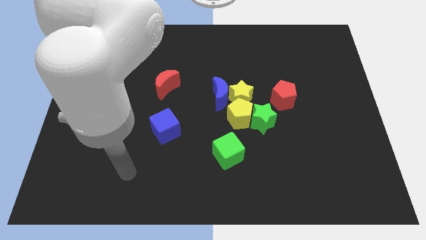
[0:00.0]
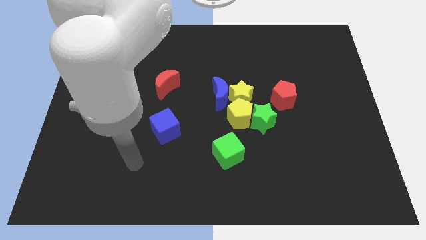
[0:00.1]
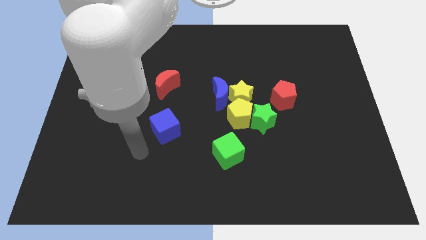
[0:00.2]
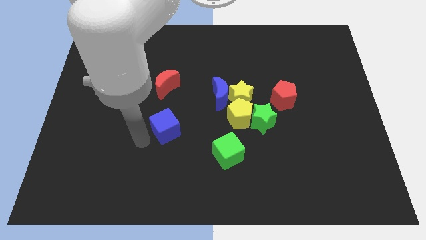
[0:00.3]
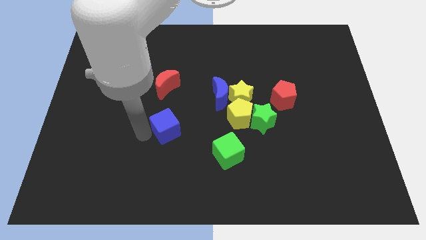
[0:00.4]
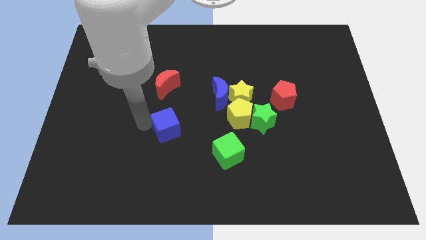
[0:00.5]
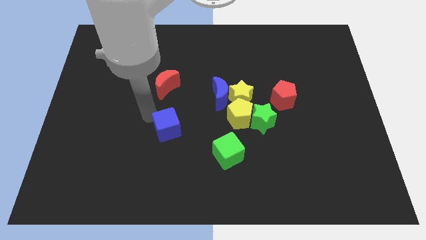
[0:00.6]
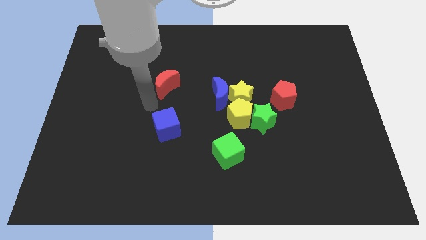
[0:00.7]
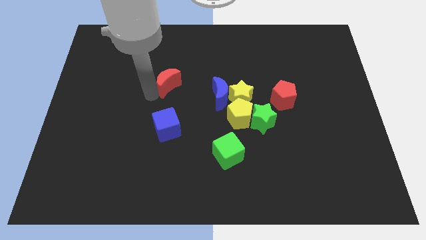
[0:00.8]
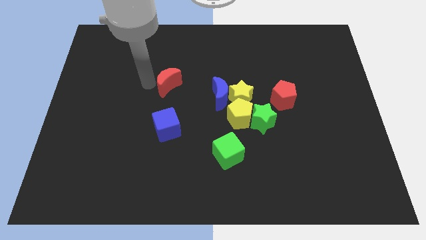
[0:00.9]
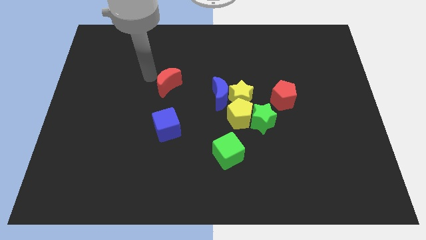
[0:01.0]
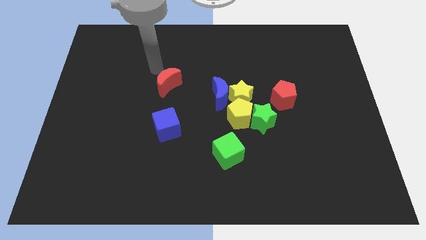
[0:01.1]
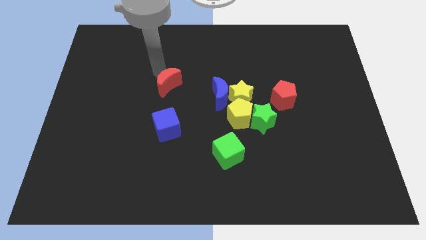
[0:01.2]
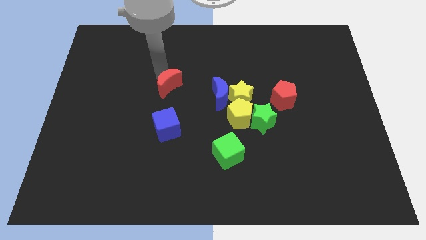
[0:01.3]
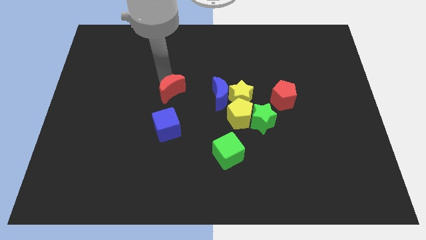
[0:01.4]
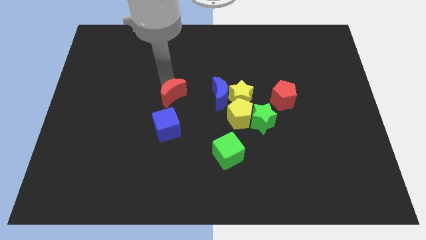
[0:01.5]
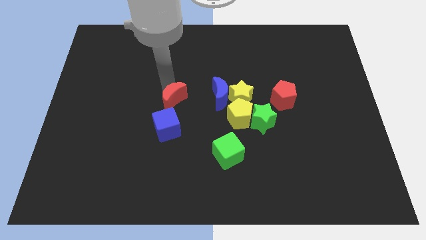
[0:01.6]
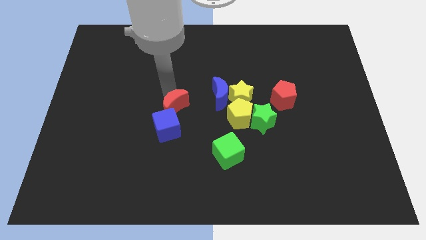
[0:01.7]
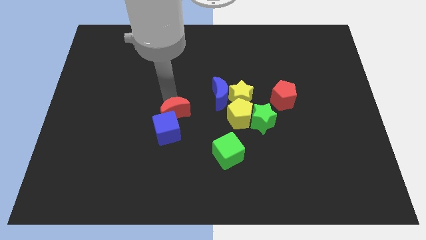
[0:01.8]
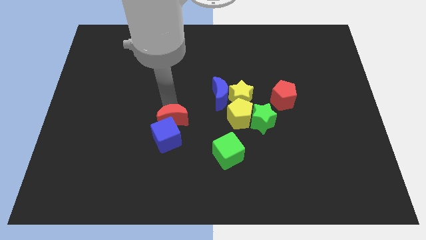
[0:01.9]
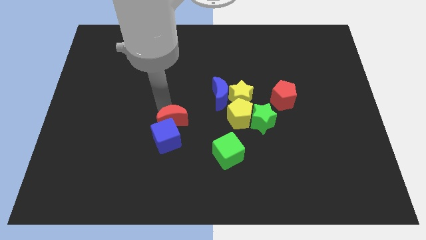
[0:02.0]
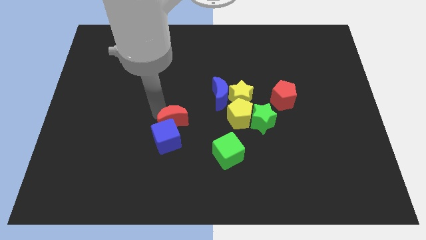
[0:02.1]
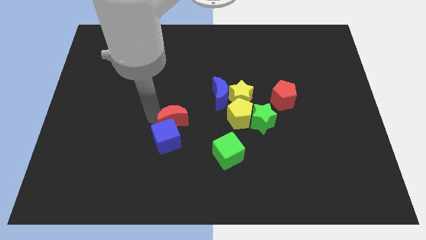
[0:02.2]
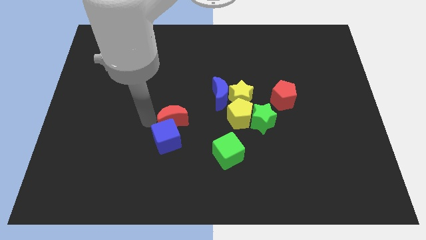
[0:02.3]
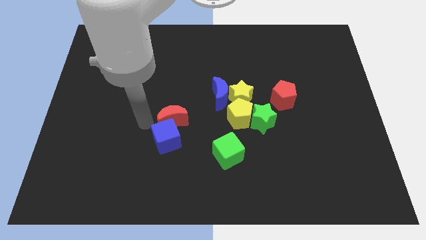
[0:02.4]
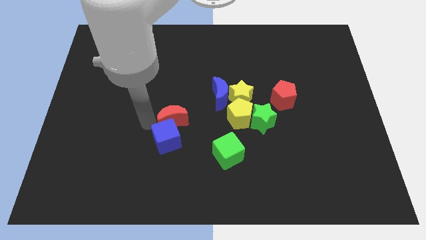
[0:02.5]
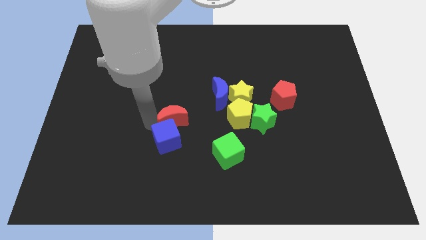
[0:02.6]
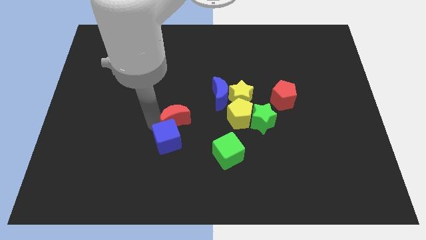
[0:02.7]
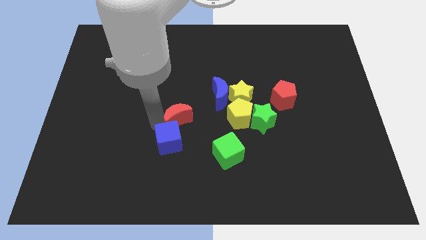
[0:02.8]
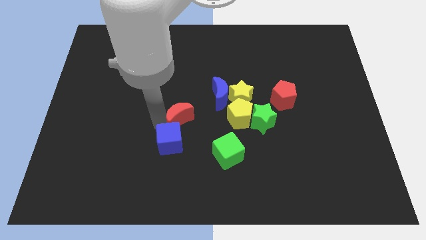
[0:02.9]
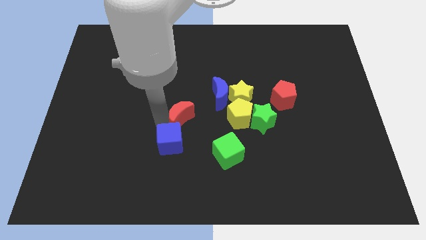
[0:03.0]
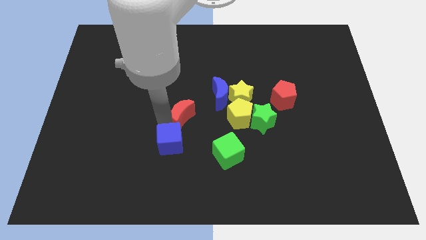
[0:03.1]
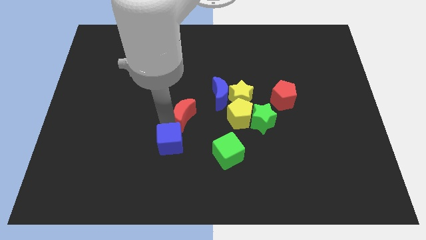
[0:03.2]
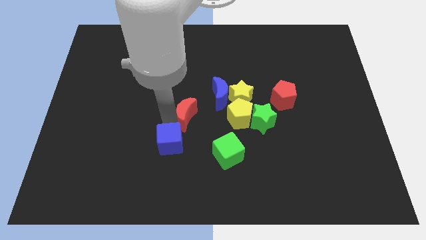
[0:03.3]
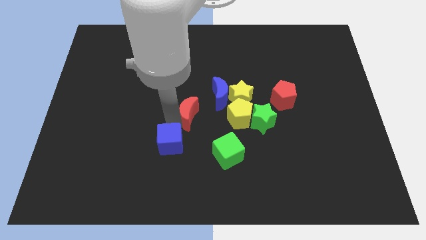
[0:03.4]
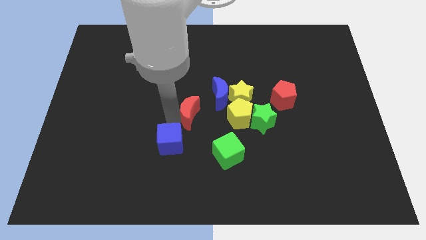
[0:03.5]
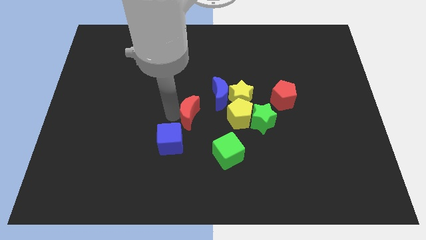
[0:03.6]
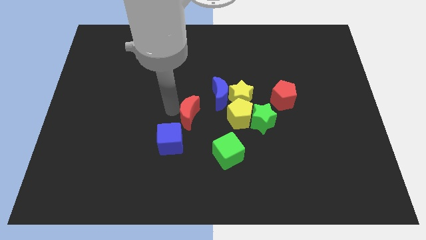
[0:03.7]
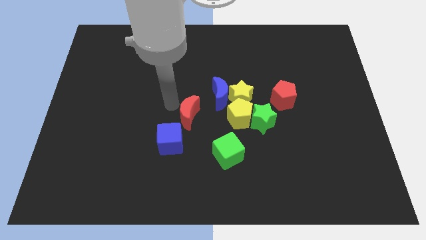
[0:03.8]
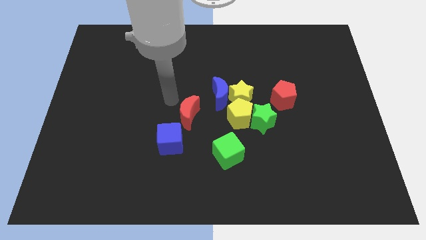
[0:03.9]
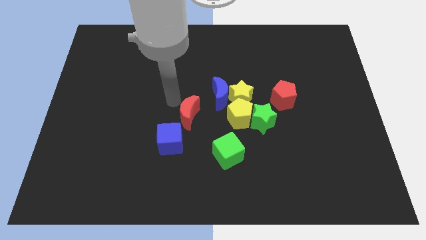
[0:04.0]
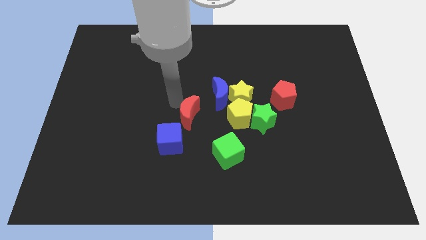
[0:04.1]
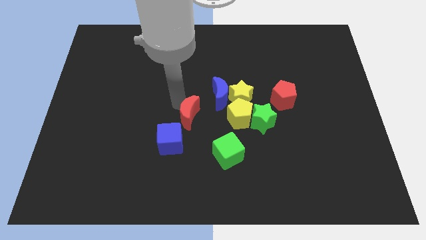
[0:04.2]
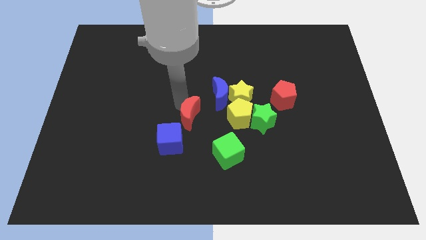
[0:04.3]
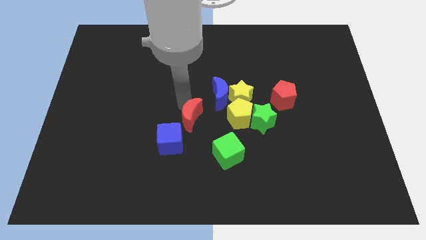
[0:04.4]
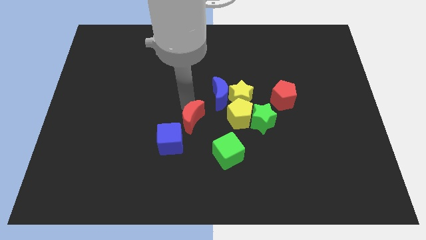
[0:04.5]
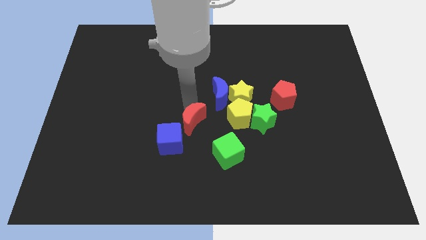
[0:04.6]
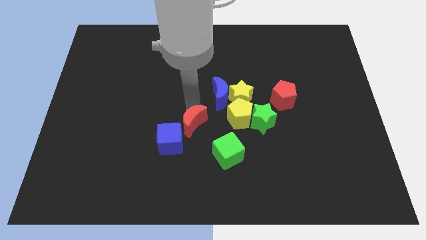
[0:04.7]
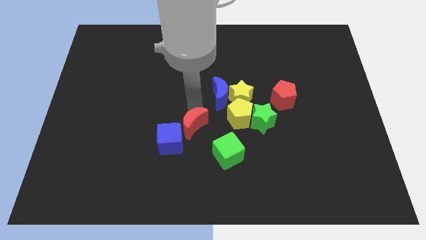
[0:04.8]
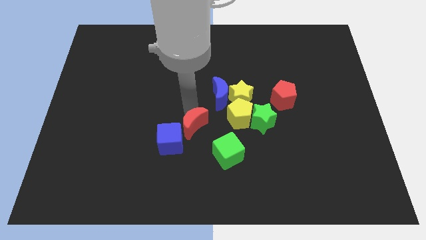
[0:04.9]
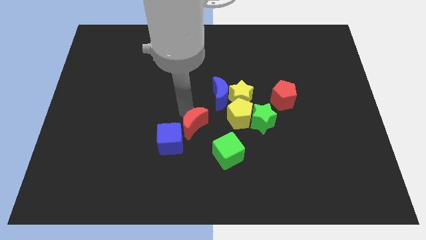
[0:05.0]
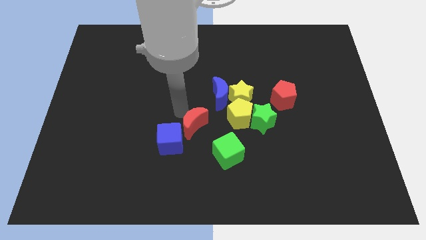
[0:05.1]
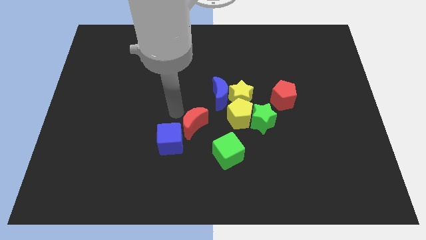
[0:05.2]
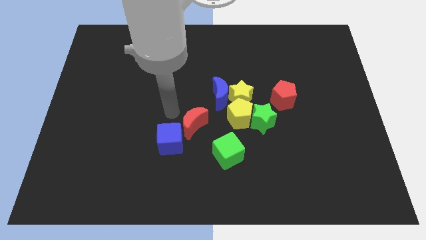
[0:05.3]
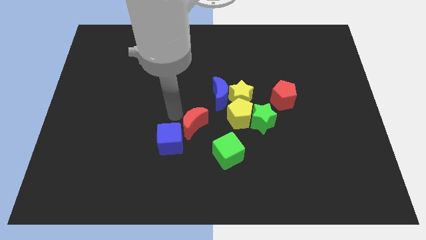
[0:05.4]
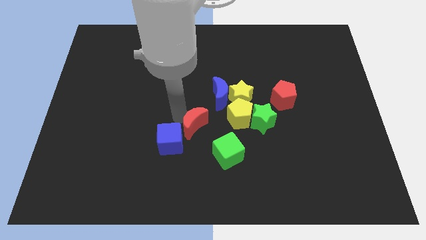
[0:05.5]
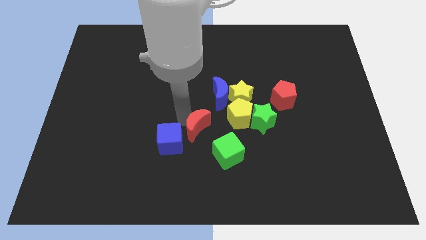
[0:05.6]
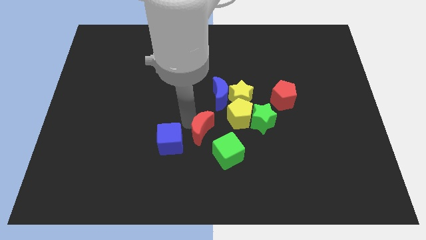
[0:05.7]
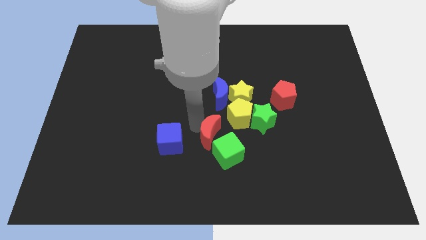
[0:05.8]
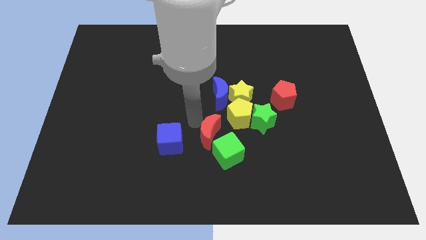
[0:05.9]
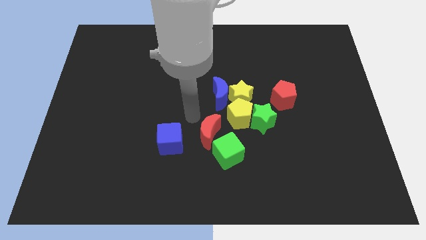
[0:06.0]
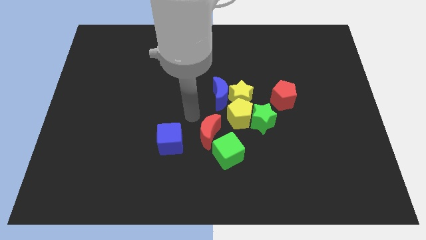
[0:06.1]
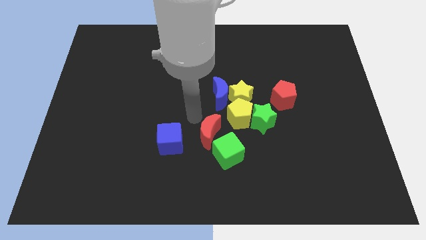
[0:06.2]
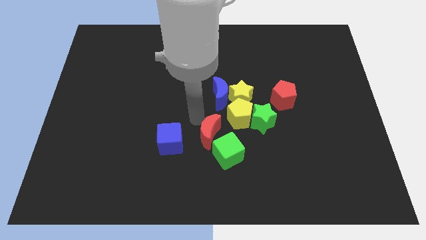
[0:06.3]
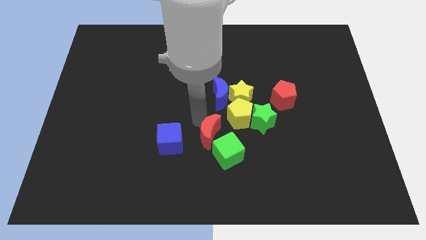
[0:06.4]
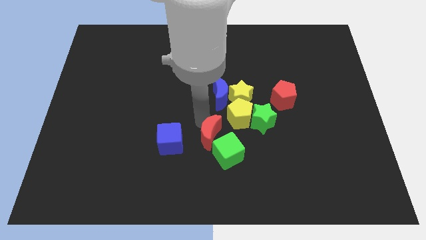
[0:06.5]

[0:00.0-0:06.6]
push the red moon to the green cube

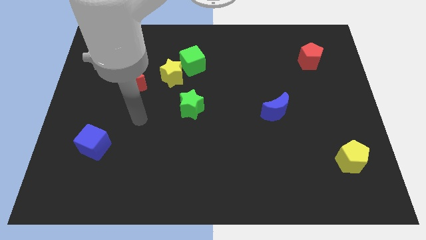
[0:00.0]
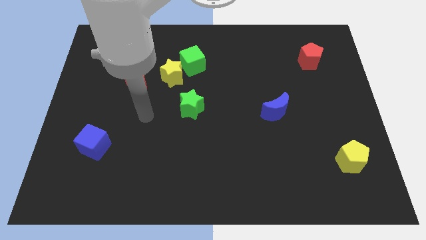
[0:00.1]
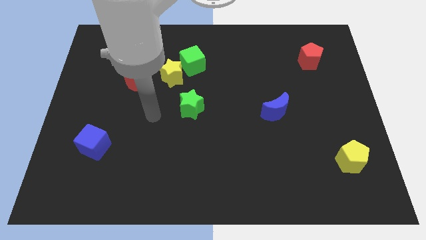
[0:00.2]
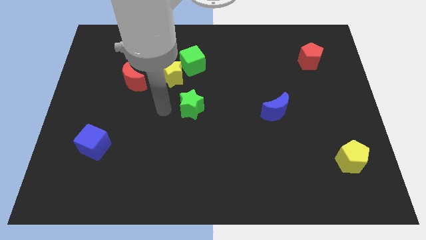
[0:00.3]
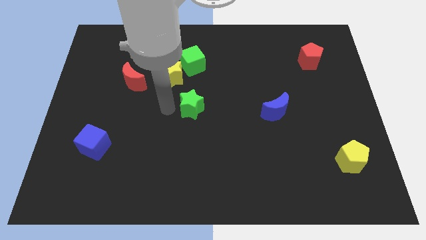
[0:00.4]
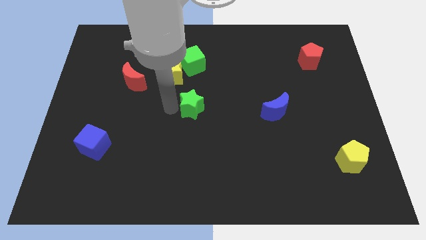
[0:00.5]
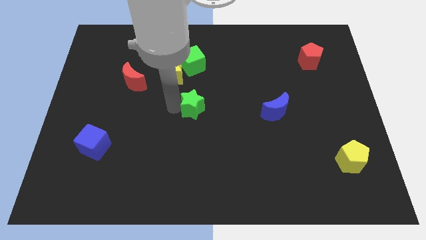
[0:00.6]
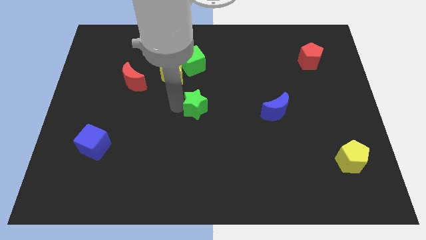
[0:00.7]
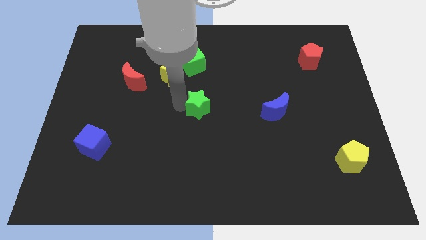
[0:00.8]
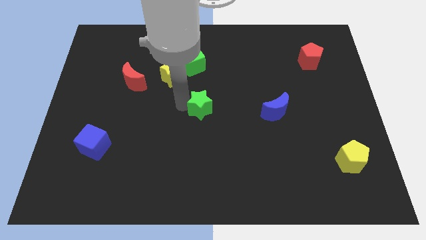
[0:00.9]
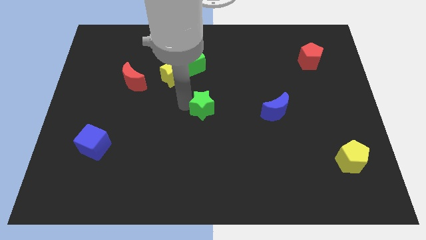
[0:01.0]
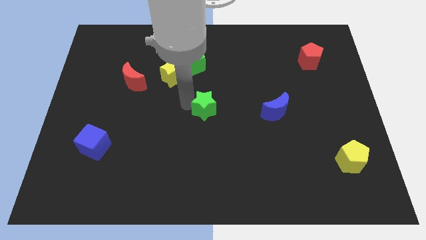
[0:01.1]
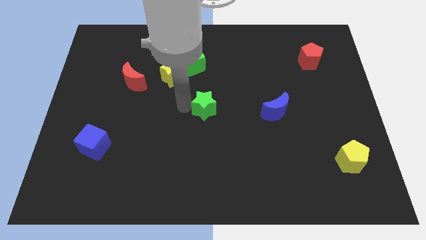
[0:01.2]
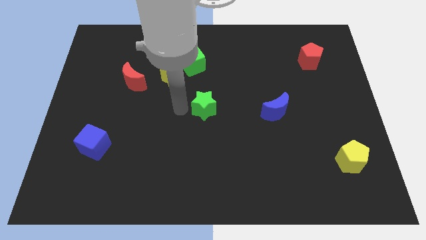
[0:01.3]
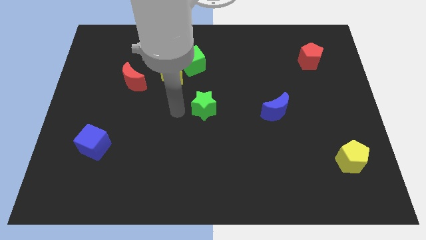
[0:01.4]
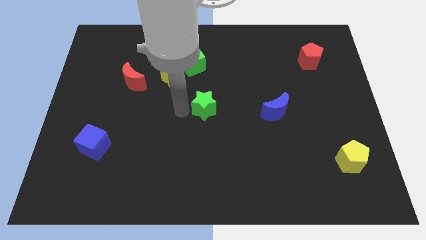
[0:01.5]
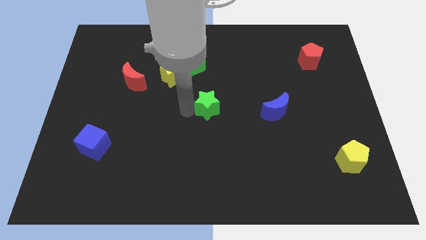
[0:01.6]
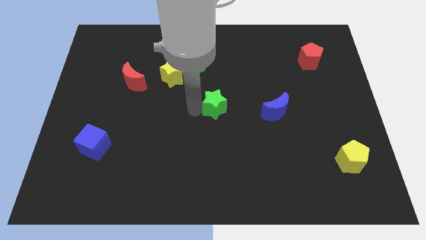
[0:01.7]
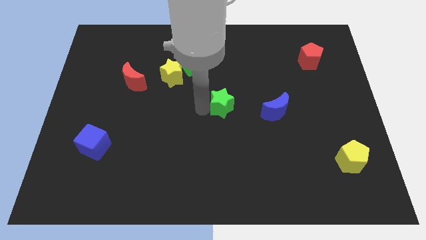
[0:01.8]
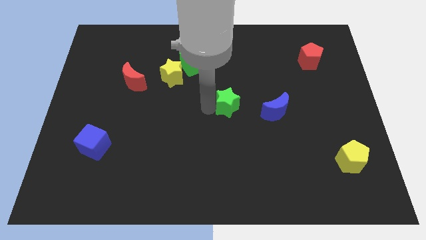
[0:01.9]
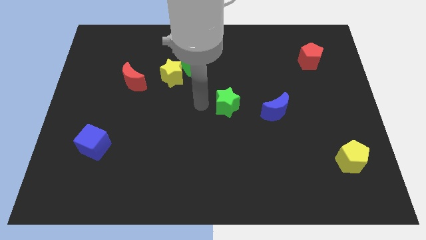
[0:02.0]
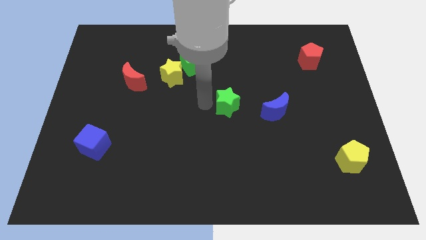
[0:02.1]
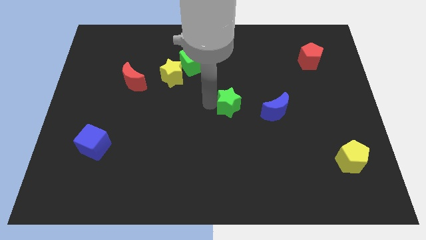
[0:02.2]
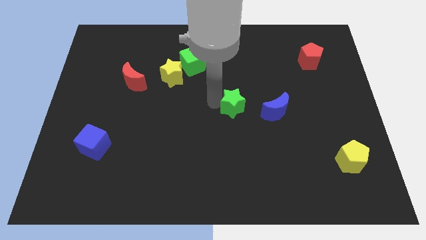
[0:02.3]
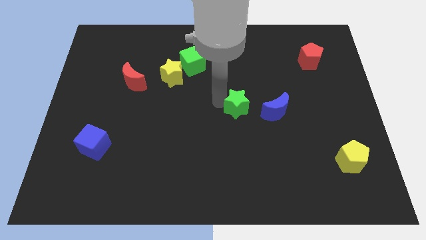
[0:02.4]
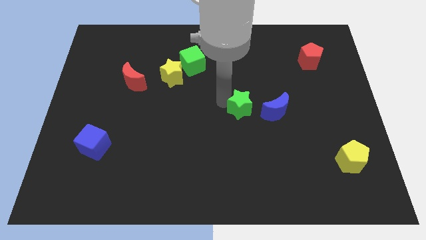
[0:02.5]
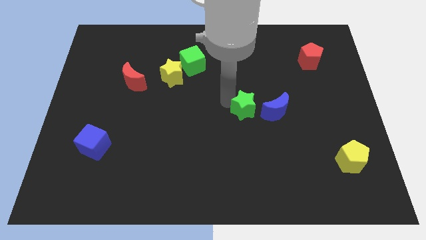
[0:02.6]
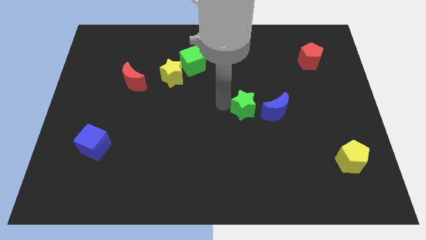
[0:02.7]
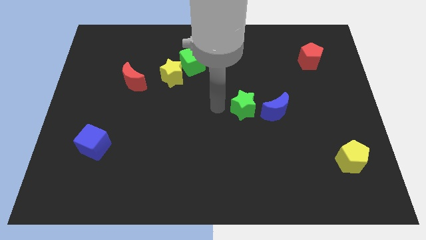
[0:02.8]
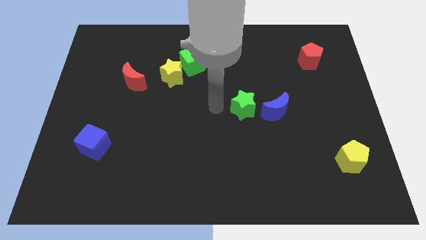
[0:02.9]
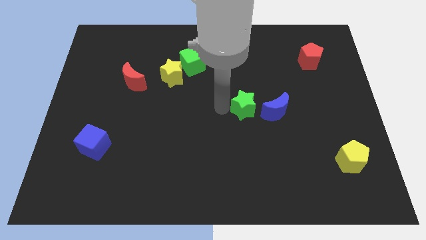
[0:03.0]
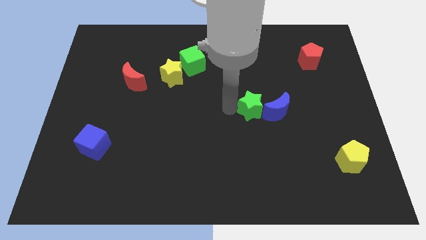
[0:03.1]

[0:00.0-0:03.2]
put the green star close to the blue moon
